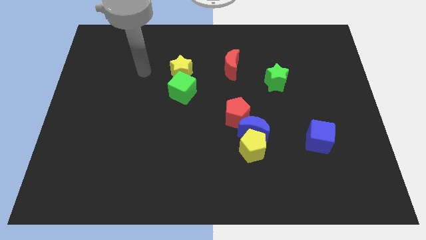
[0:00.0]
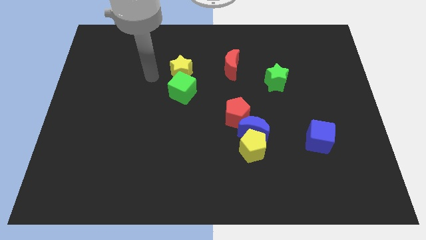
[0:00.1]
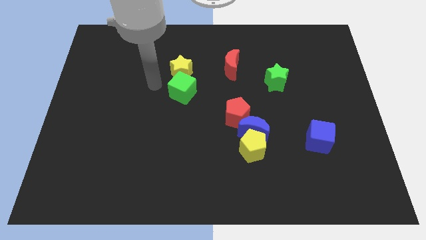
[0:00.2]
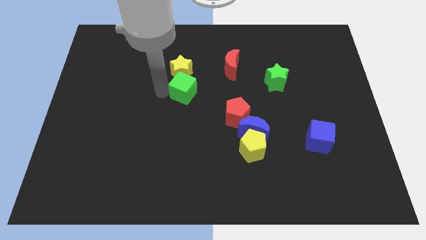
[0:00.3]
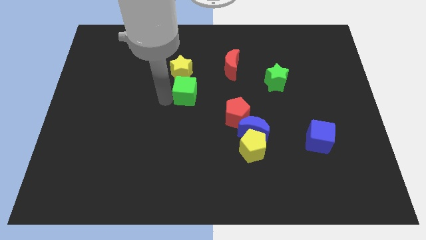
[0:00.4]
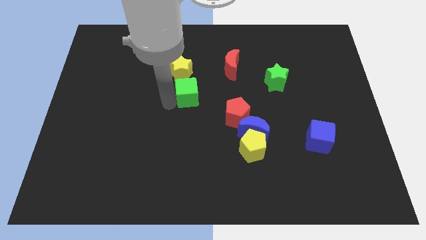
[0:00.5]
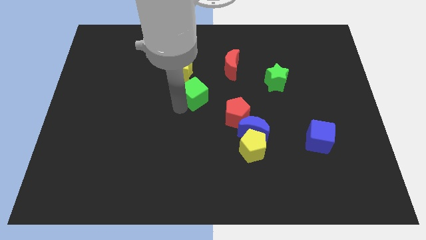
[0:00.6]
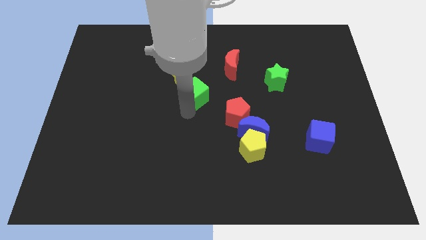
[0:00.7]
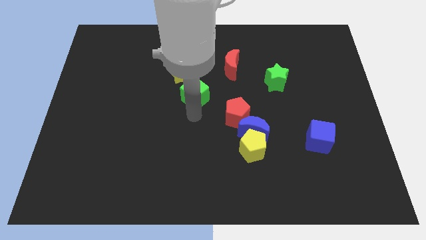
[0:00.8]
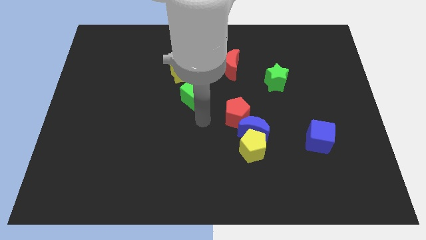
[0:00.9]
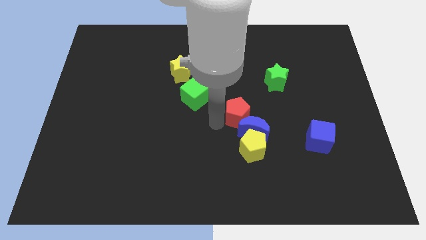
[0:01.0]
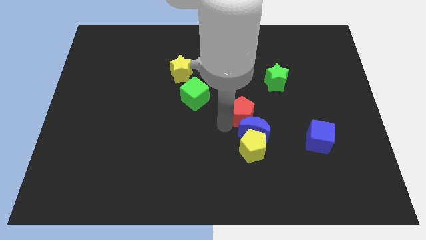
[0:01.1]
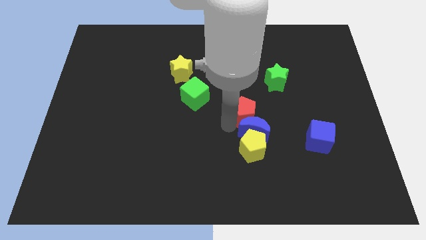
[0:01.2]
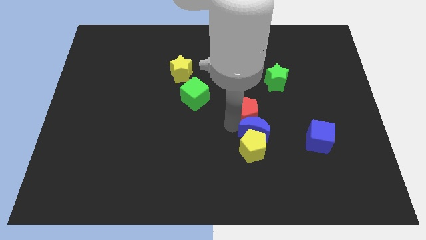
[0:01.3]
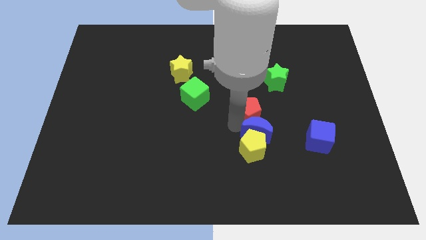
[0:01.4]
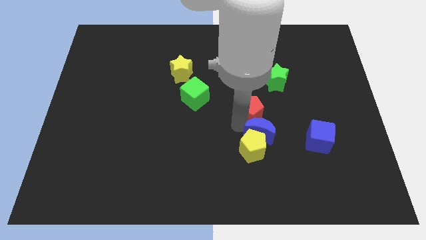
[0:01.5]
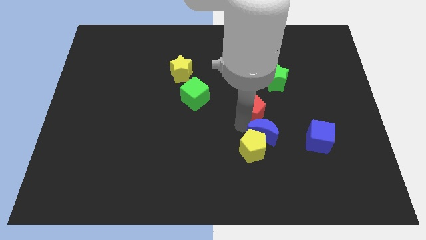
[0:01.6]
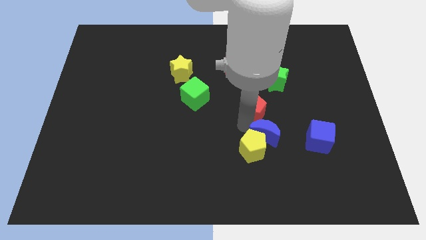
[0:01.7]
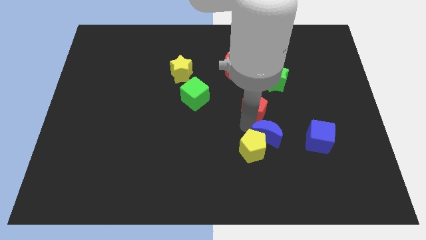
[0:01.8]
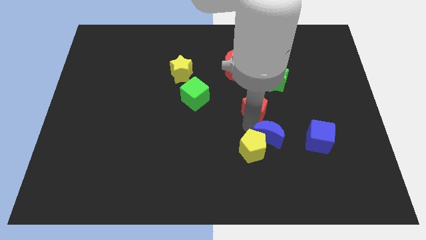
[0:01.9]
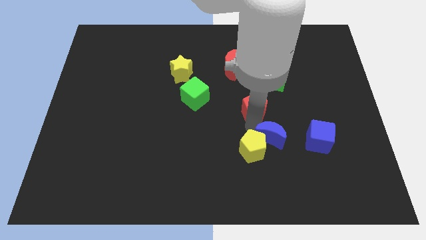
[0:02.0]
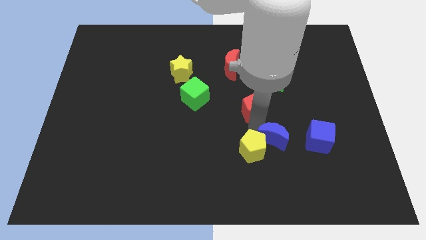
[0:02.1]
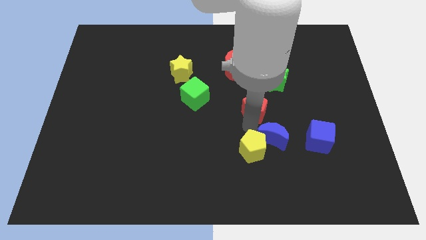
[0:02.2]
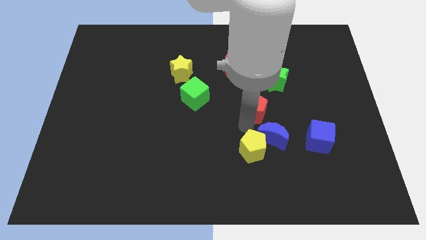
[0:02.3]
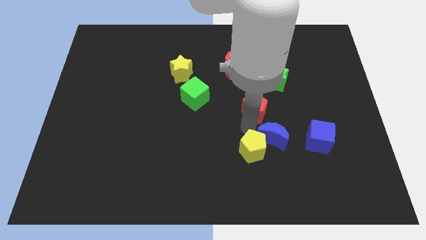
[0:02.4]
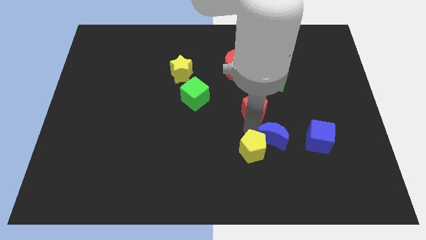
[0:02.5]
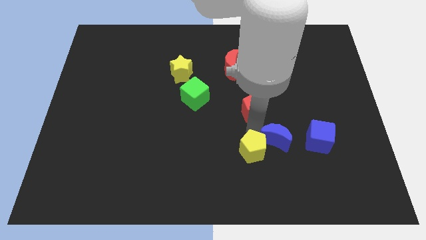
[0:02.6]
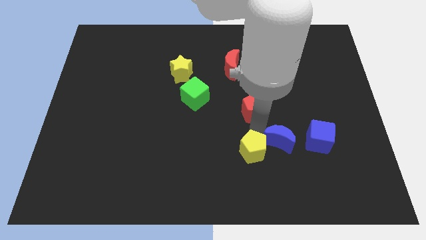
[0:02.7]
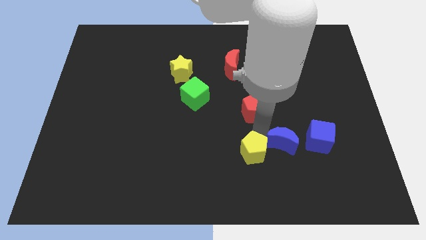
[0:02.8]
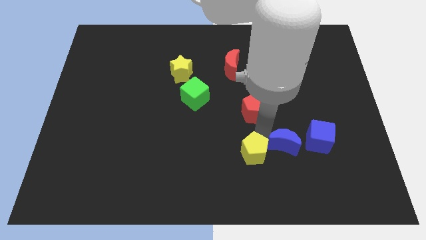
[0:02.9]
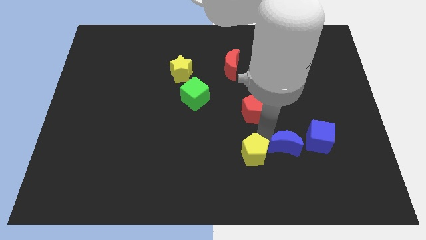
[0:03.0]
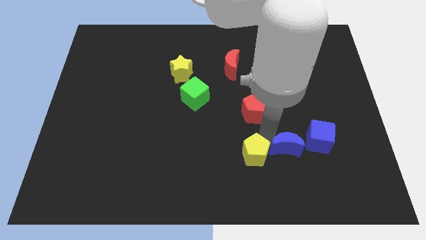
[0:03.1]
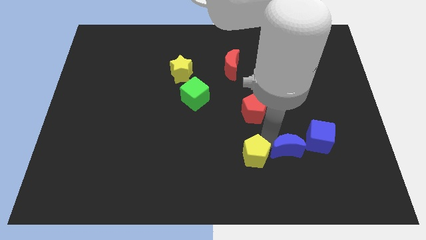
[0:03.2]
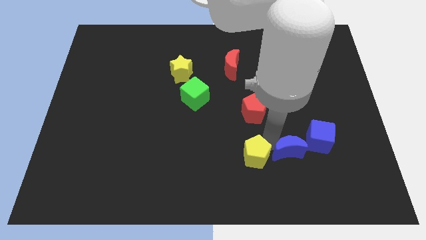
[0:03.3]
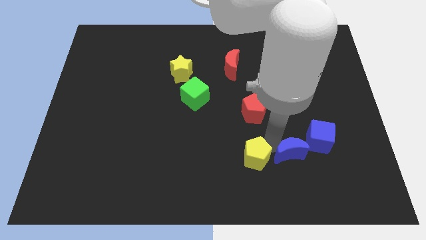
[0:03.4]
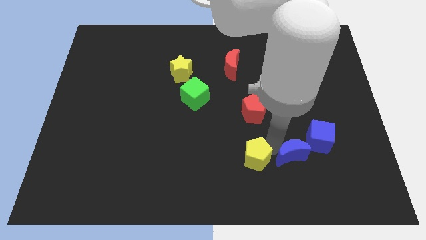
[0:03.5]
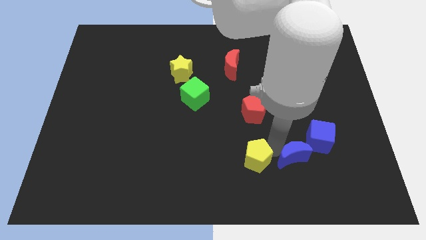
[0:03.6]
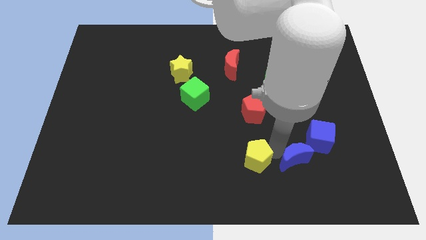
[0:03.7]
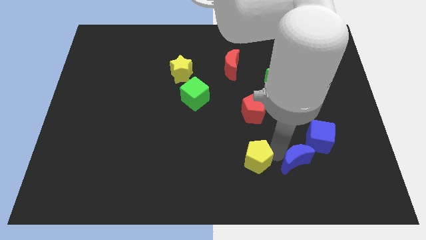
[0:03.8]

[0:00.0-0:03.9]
pull the blue moon apart from the yellow pentagon and red pentagon

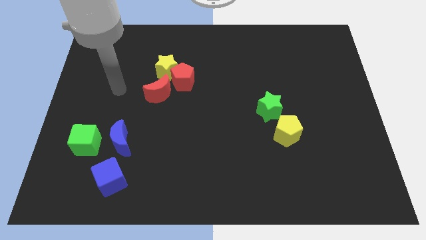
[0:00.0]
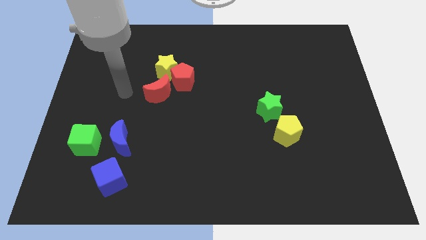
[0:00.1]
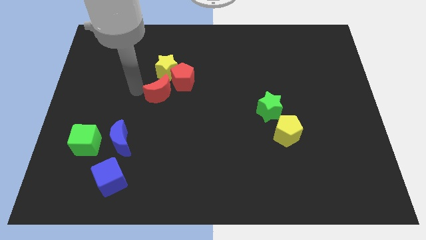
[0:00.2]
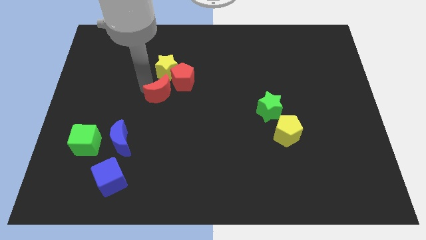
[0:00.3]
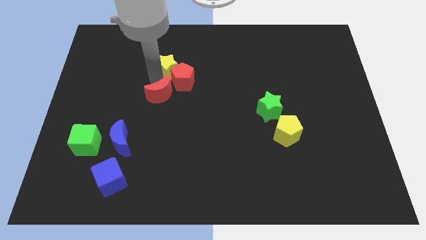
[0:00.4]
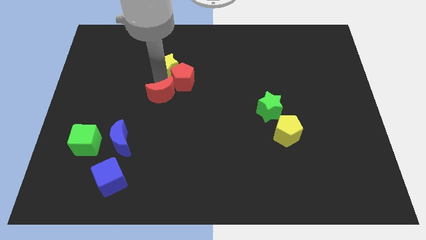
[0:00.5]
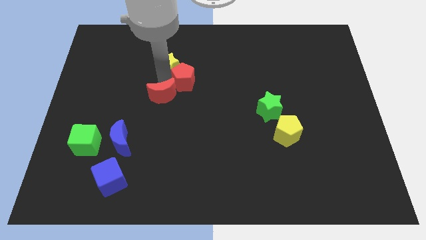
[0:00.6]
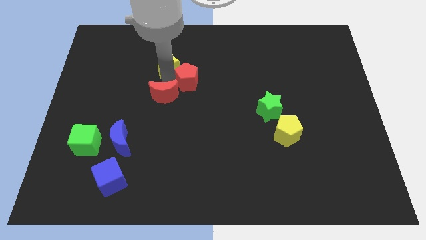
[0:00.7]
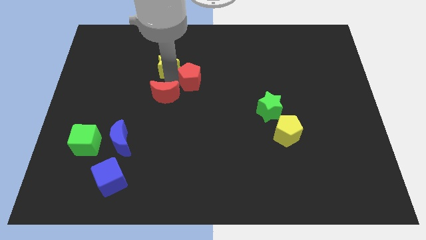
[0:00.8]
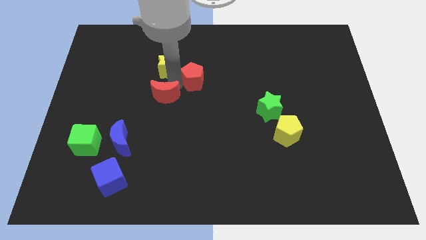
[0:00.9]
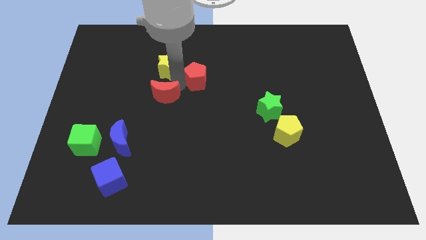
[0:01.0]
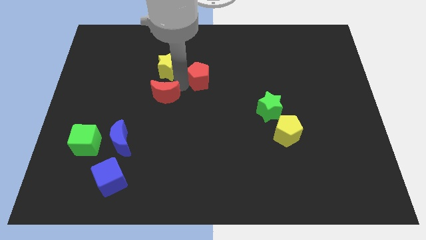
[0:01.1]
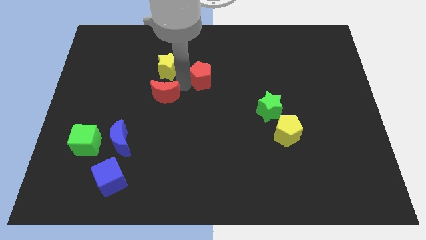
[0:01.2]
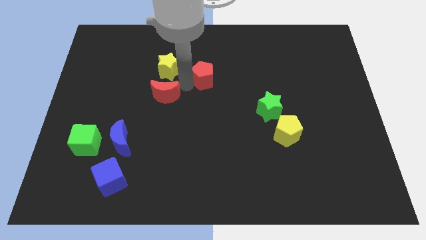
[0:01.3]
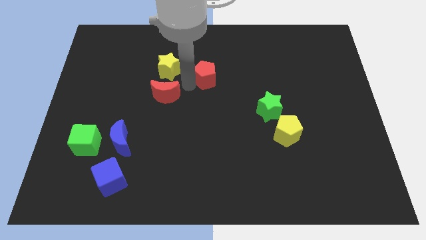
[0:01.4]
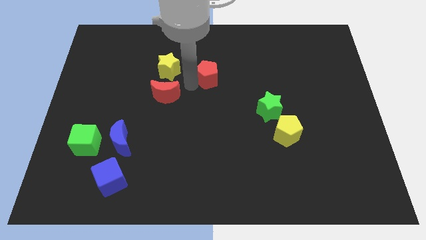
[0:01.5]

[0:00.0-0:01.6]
move the red pentagon away from the yellow star and red moon

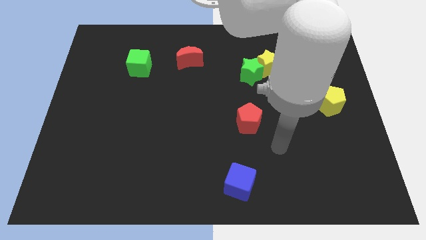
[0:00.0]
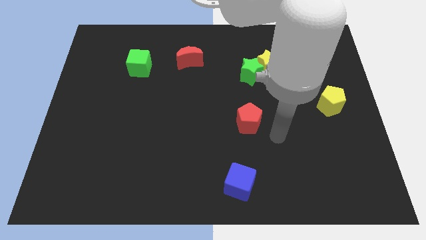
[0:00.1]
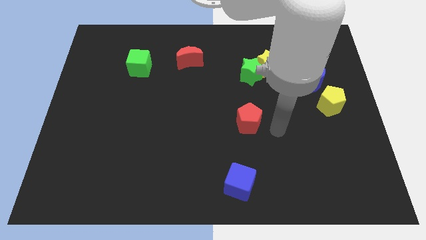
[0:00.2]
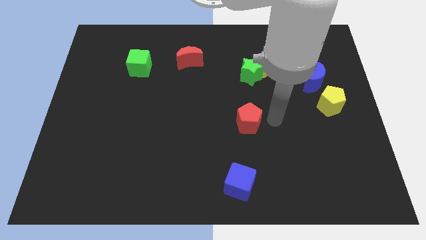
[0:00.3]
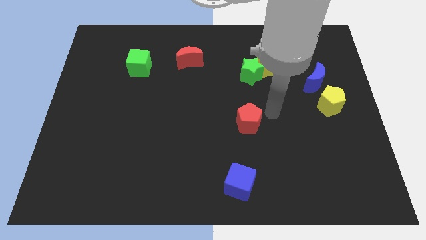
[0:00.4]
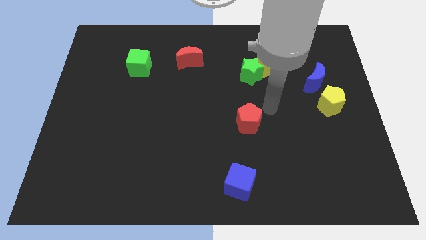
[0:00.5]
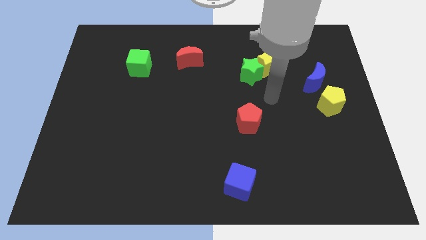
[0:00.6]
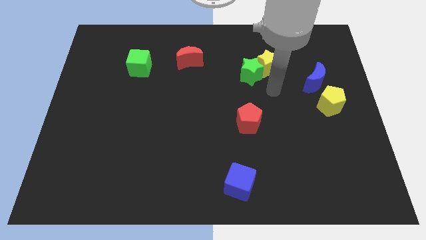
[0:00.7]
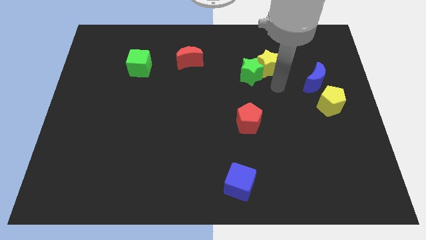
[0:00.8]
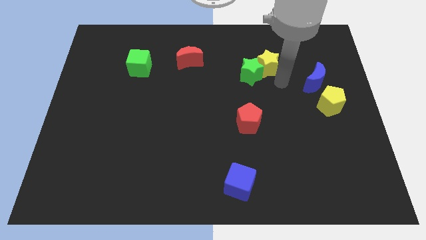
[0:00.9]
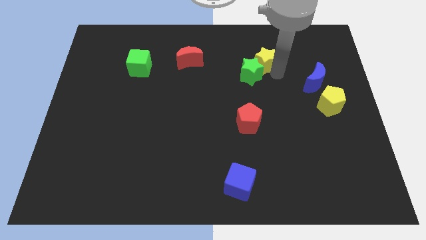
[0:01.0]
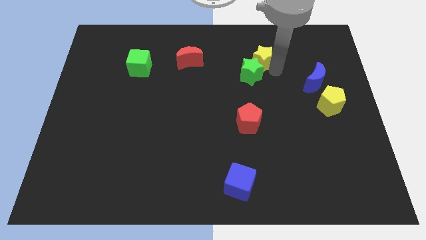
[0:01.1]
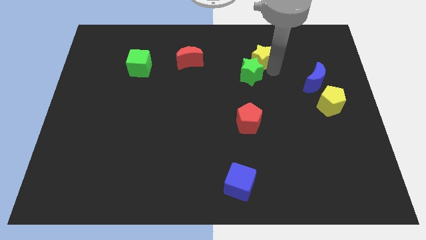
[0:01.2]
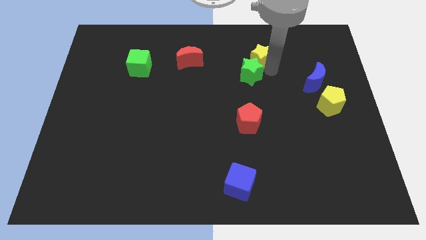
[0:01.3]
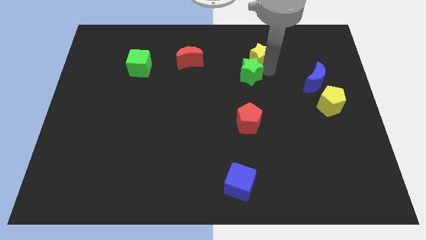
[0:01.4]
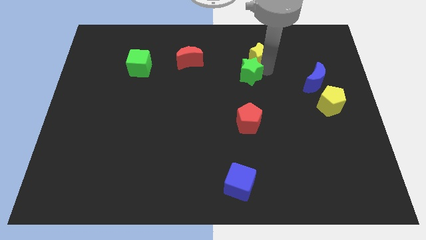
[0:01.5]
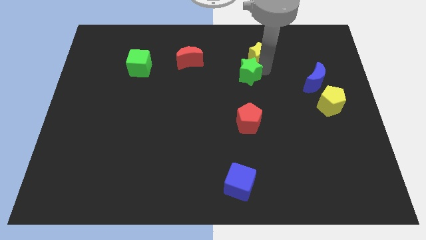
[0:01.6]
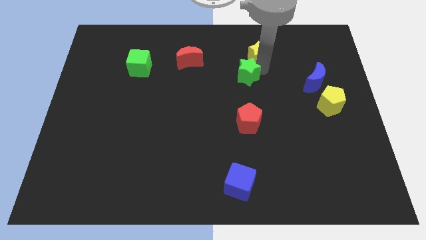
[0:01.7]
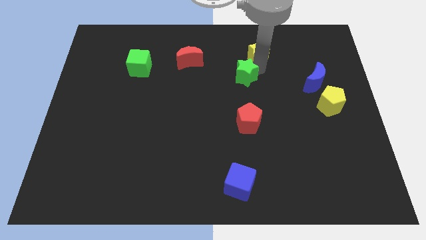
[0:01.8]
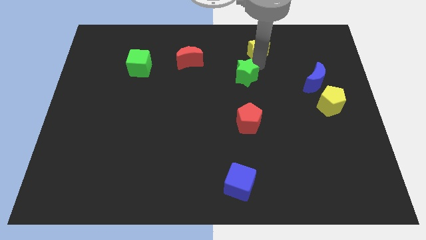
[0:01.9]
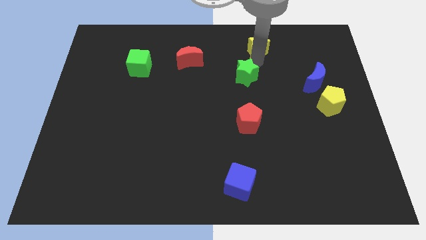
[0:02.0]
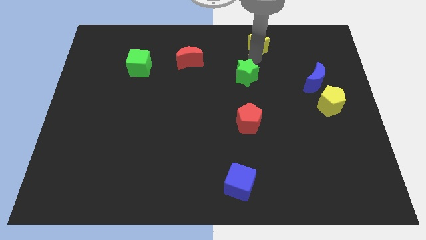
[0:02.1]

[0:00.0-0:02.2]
move the green star away from the yellow star

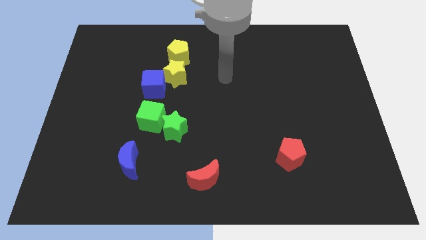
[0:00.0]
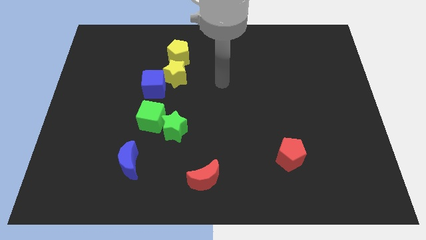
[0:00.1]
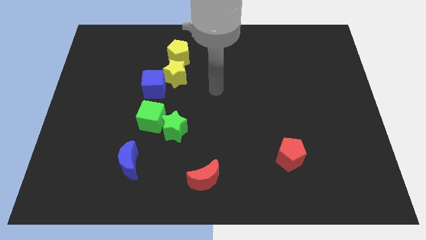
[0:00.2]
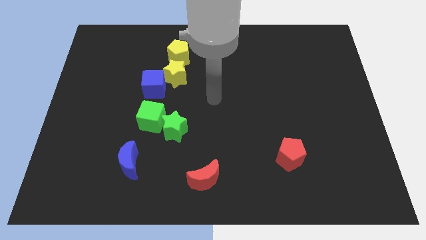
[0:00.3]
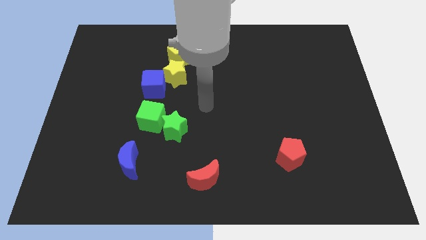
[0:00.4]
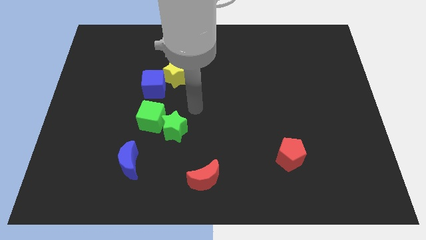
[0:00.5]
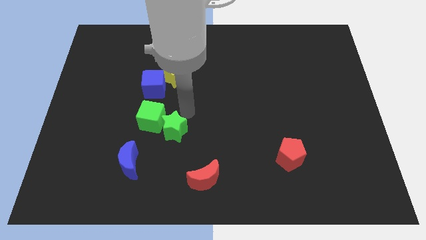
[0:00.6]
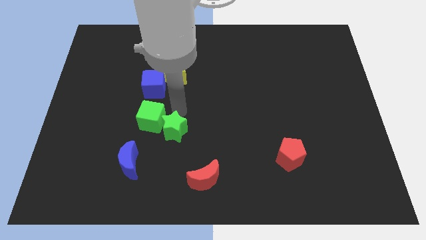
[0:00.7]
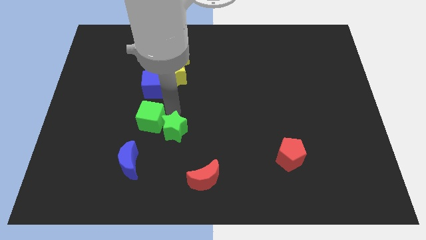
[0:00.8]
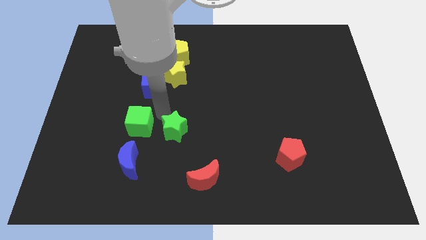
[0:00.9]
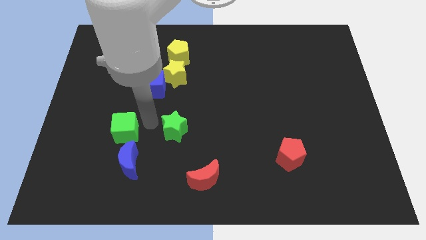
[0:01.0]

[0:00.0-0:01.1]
separate the green star from the green cube

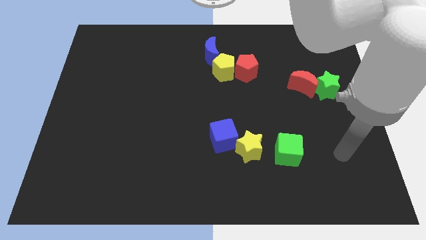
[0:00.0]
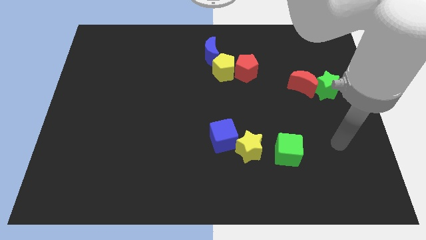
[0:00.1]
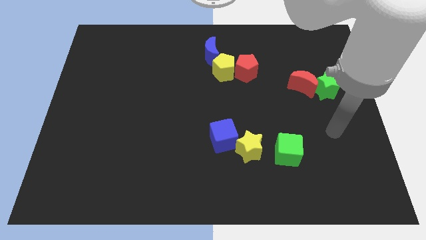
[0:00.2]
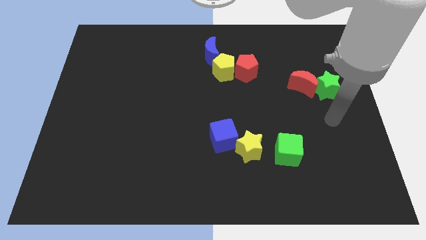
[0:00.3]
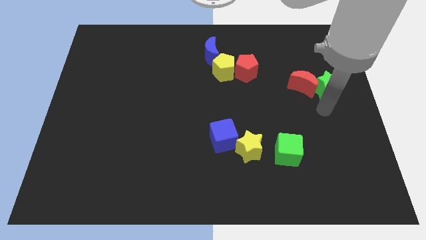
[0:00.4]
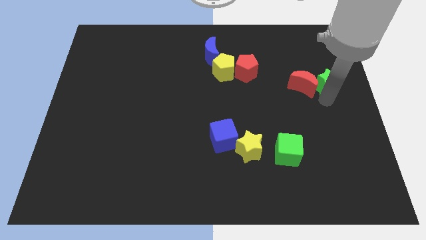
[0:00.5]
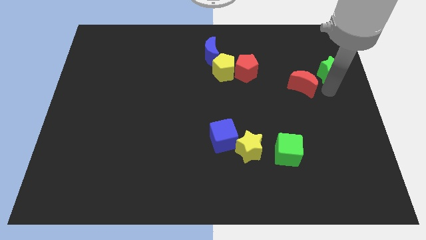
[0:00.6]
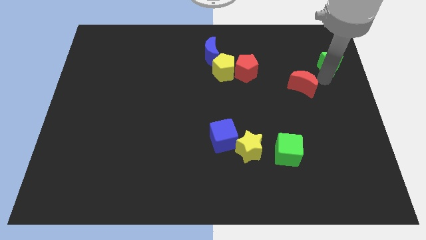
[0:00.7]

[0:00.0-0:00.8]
separate the red moon from the green star
